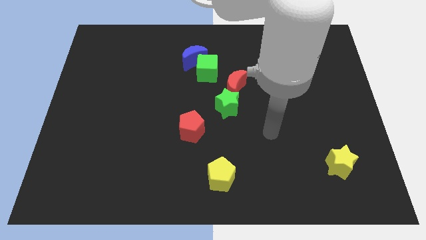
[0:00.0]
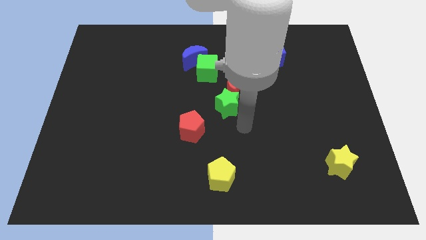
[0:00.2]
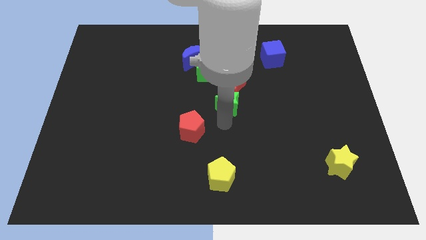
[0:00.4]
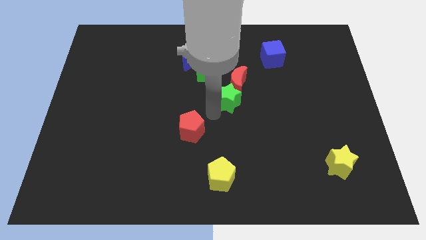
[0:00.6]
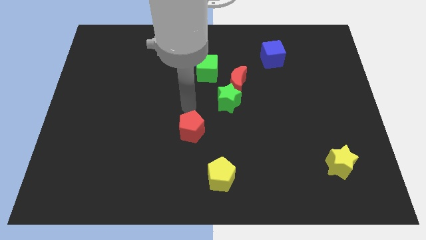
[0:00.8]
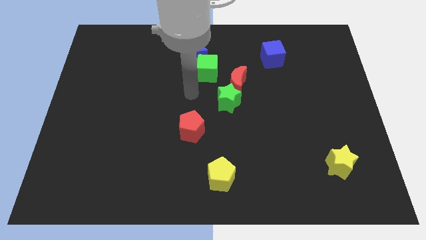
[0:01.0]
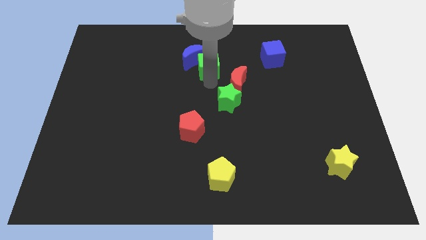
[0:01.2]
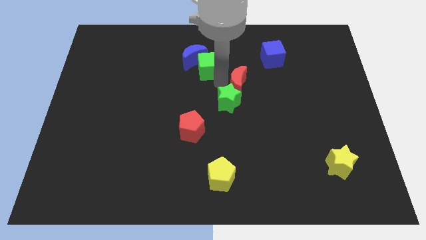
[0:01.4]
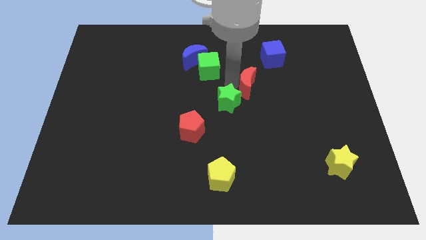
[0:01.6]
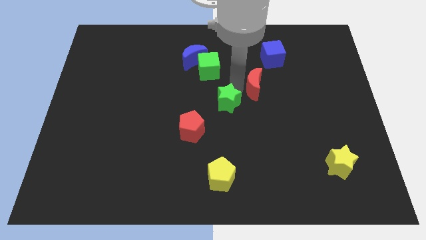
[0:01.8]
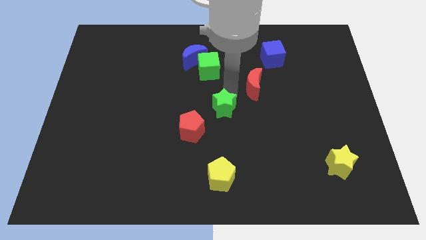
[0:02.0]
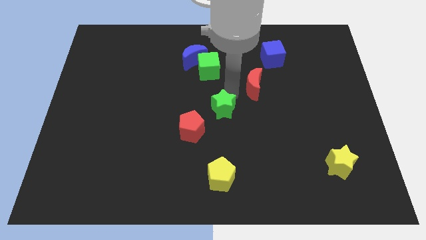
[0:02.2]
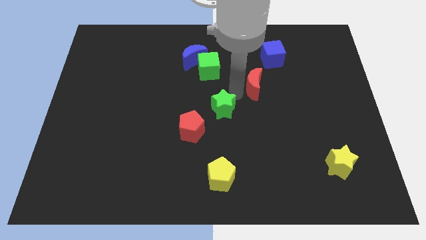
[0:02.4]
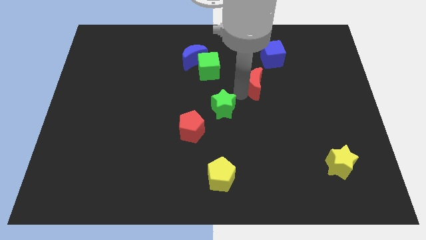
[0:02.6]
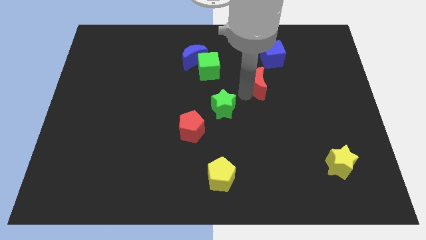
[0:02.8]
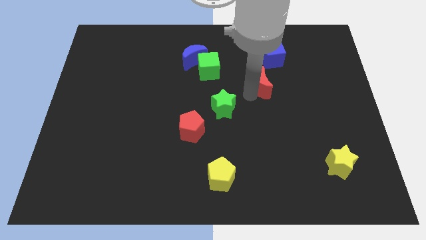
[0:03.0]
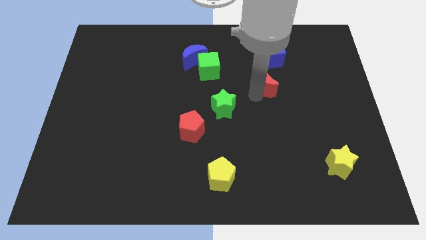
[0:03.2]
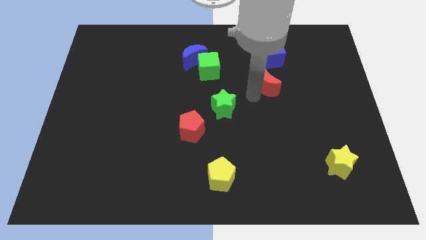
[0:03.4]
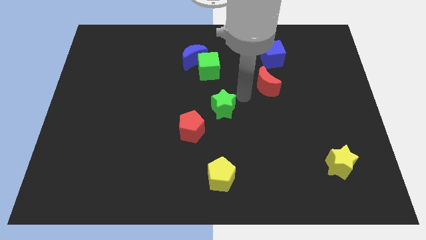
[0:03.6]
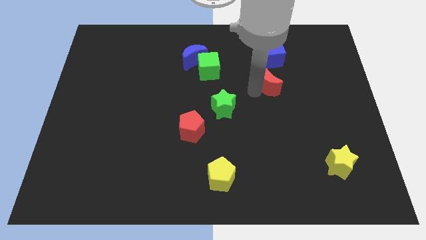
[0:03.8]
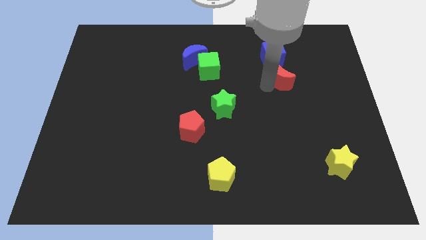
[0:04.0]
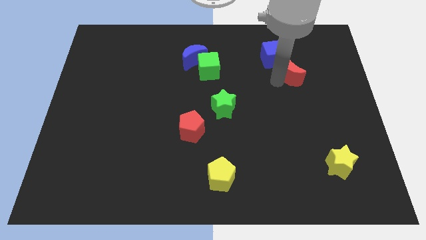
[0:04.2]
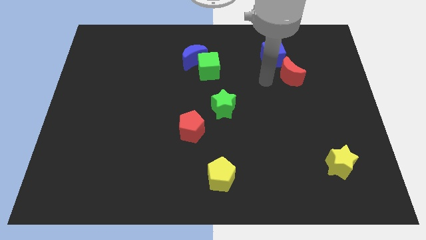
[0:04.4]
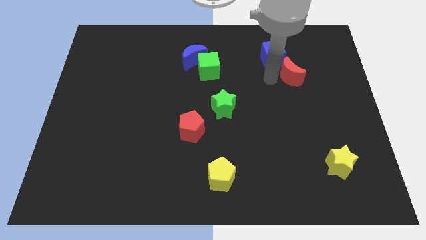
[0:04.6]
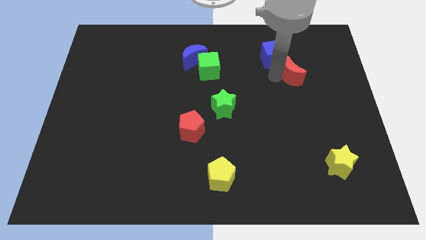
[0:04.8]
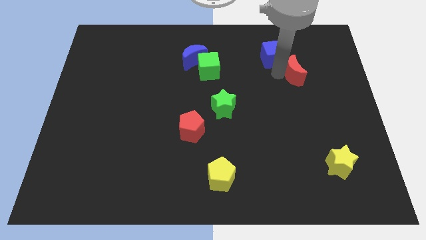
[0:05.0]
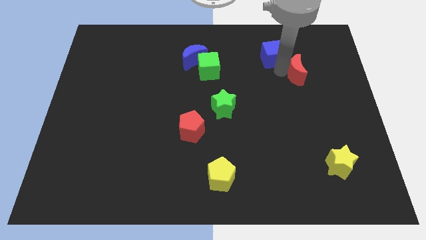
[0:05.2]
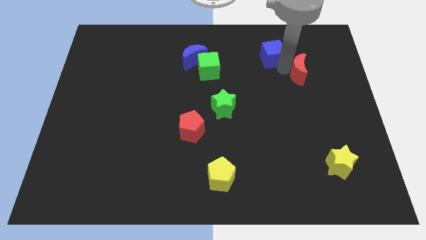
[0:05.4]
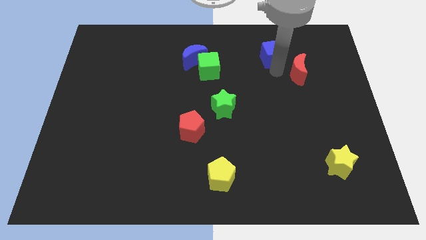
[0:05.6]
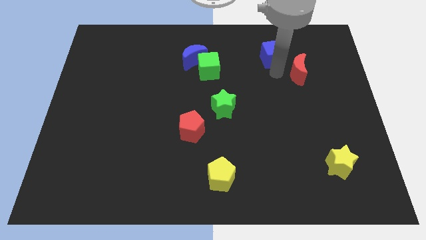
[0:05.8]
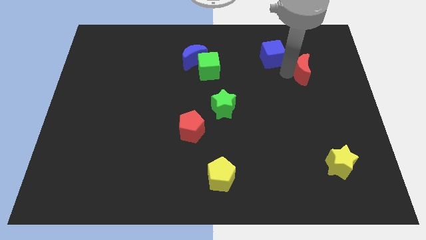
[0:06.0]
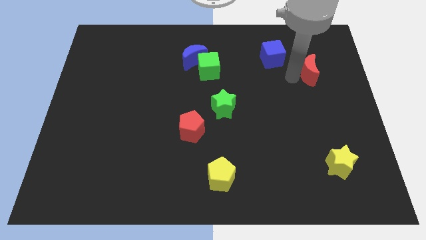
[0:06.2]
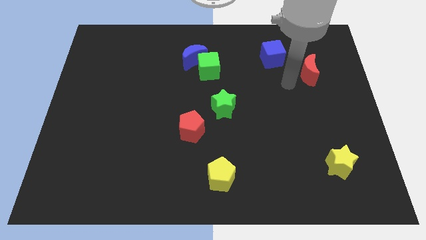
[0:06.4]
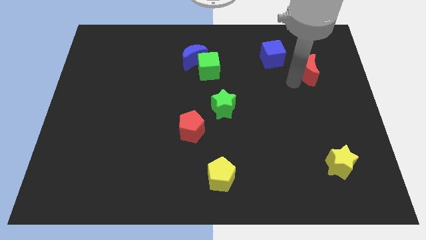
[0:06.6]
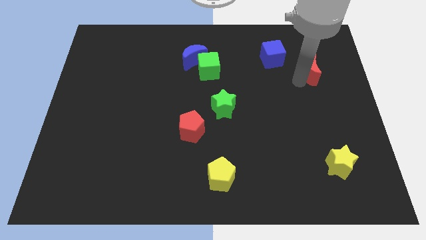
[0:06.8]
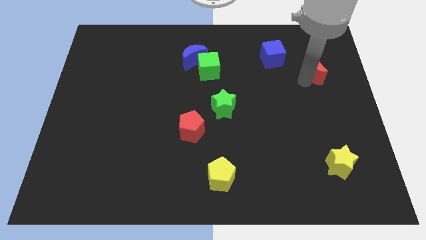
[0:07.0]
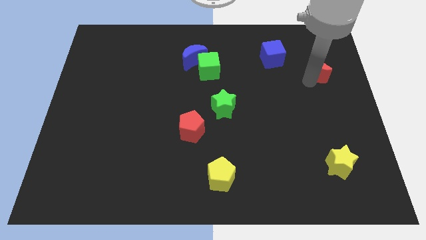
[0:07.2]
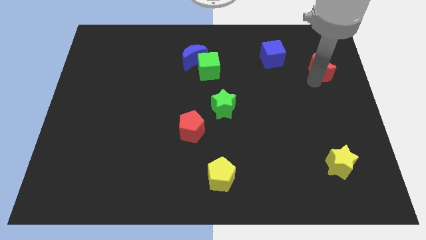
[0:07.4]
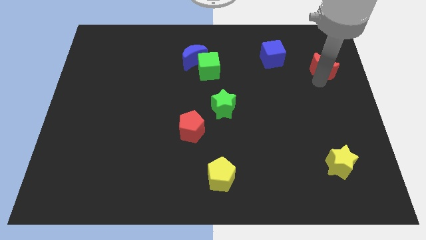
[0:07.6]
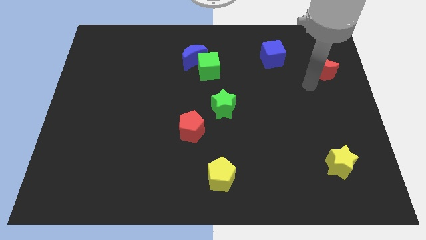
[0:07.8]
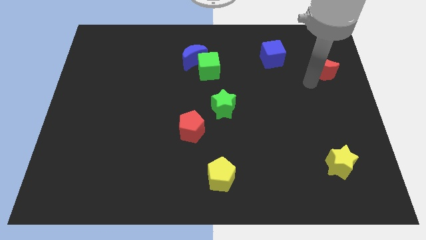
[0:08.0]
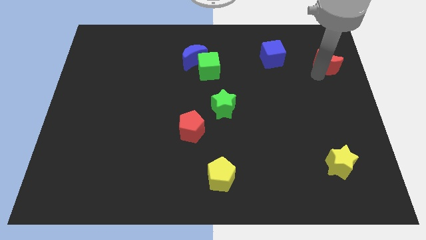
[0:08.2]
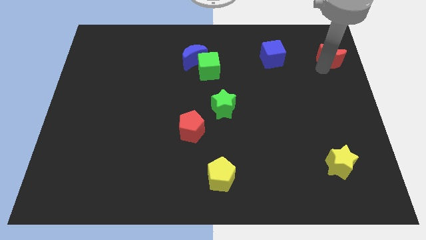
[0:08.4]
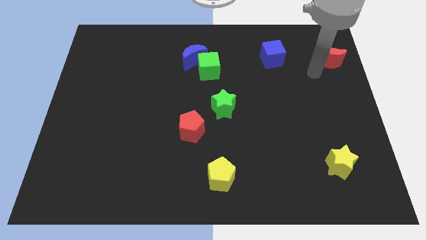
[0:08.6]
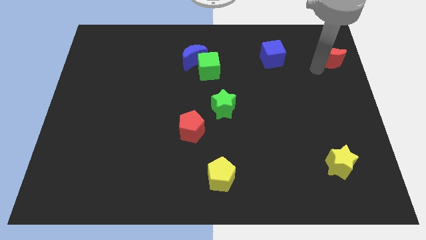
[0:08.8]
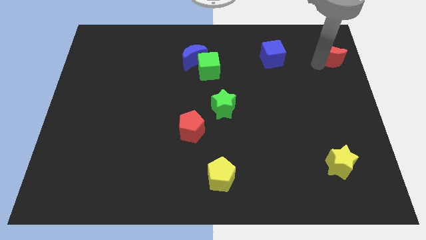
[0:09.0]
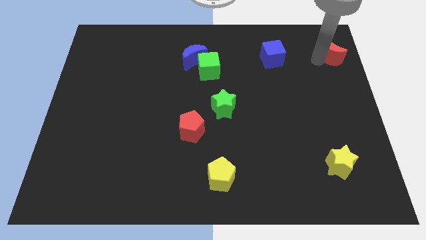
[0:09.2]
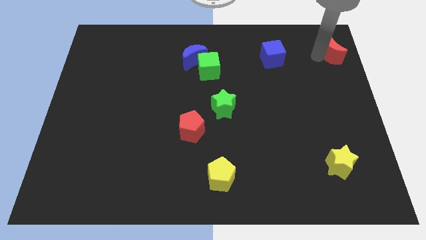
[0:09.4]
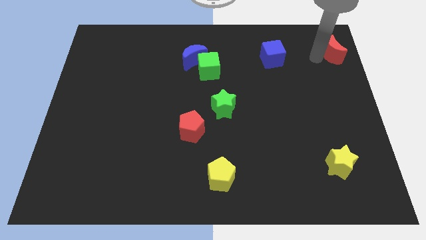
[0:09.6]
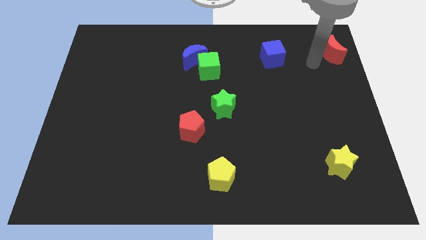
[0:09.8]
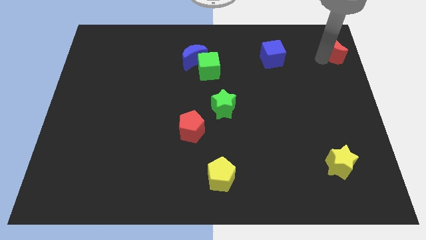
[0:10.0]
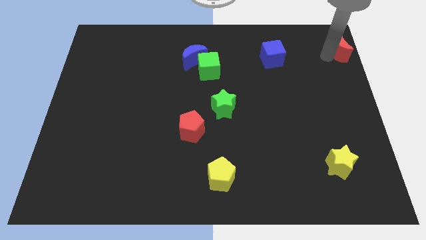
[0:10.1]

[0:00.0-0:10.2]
put the red moon to the upper right corner
